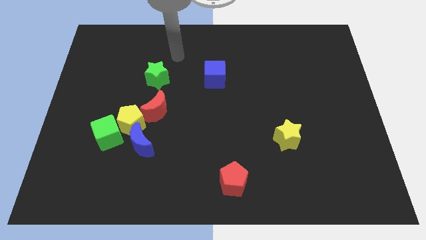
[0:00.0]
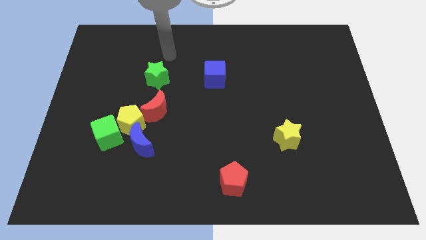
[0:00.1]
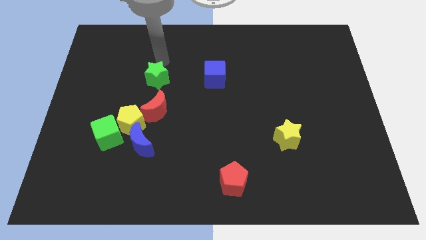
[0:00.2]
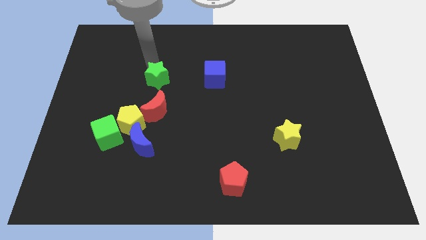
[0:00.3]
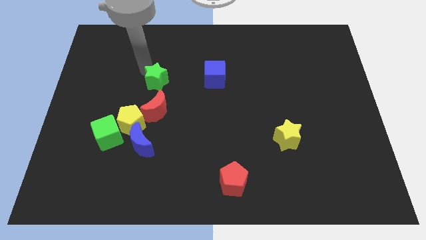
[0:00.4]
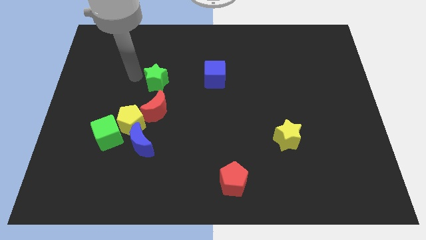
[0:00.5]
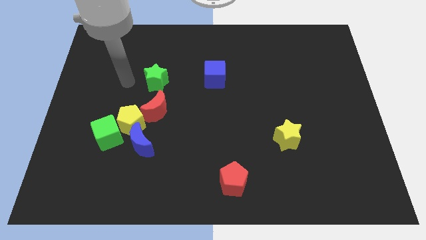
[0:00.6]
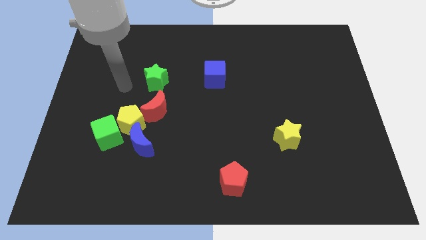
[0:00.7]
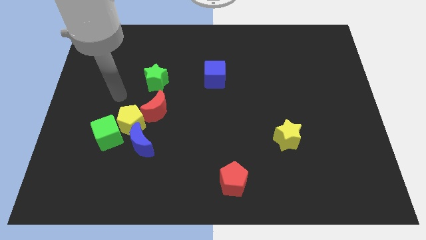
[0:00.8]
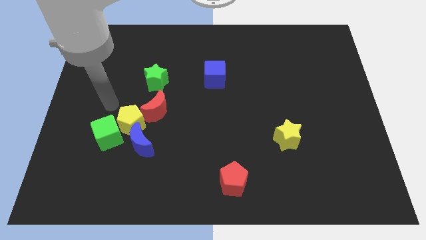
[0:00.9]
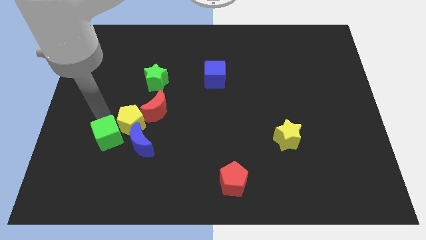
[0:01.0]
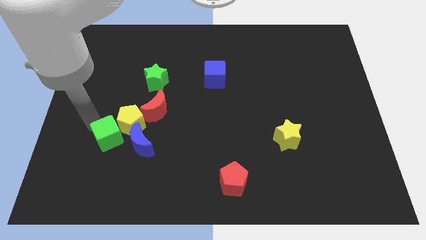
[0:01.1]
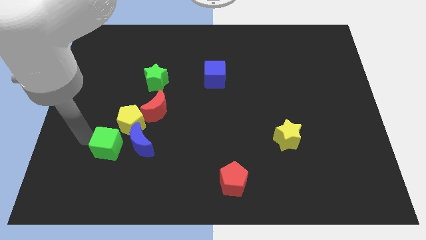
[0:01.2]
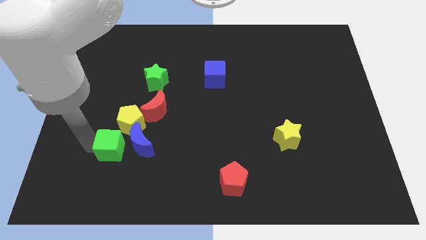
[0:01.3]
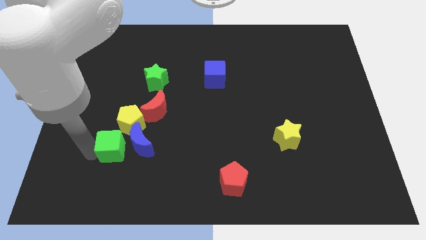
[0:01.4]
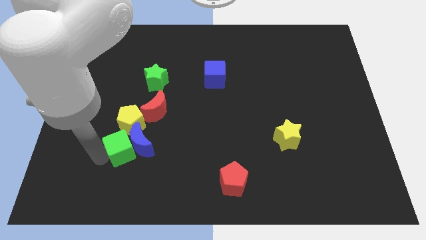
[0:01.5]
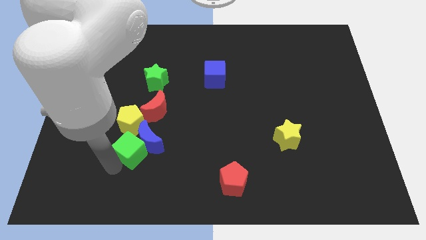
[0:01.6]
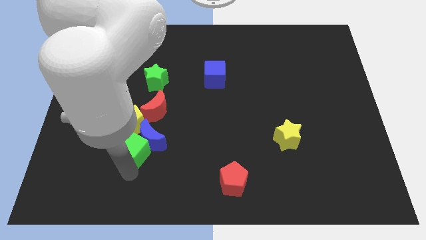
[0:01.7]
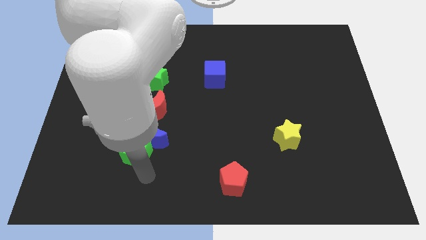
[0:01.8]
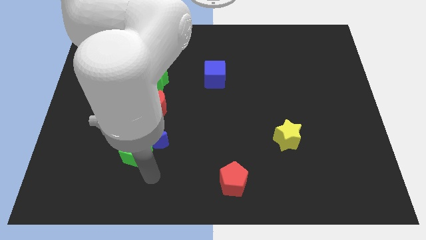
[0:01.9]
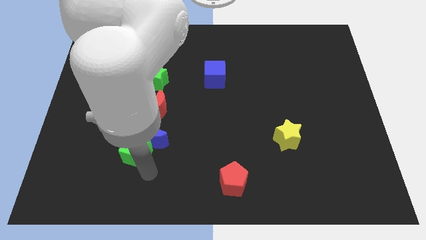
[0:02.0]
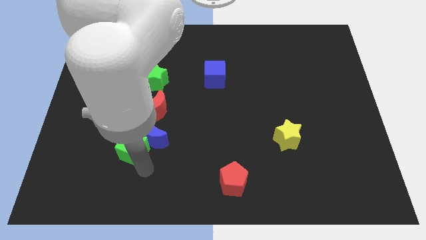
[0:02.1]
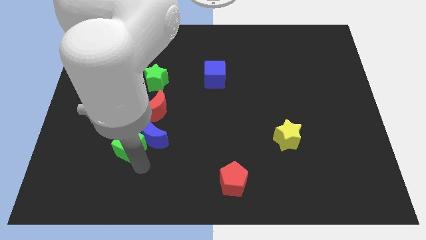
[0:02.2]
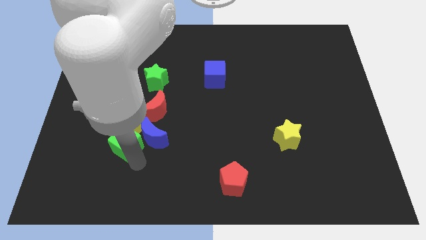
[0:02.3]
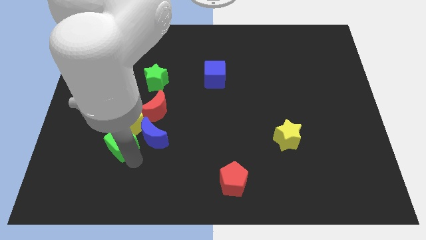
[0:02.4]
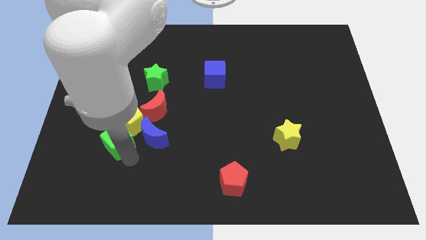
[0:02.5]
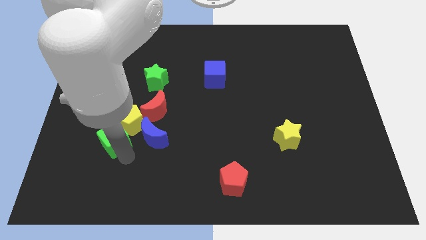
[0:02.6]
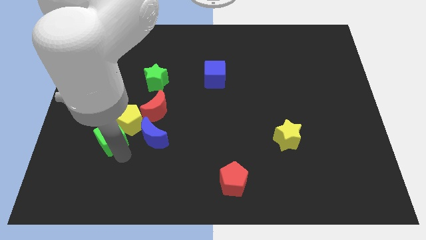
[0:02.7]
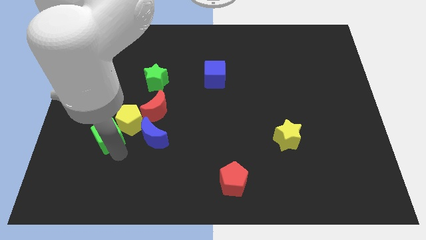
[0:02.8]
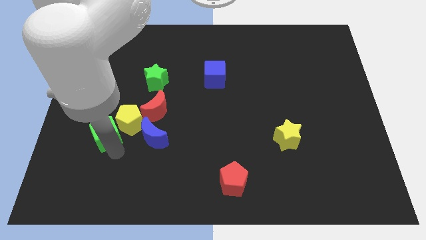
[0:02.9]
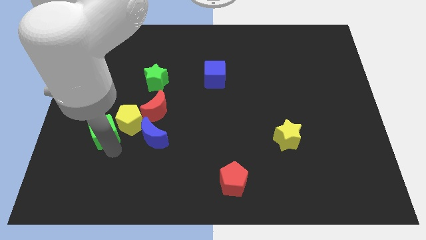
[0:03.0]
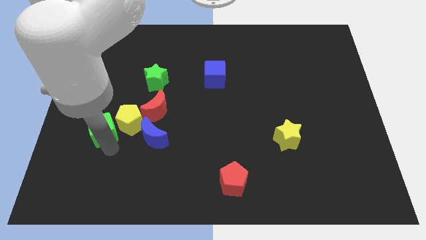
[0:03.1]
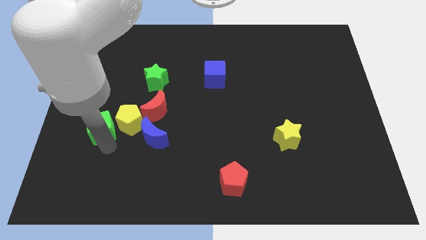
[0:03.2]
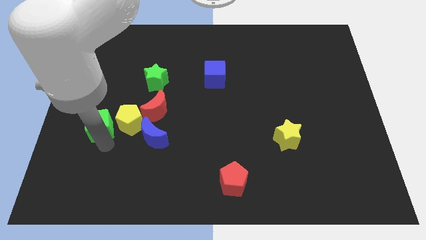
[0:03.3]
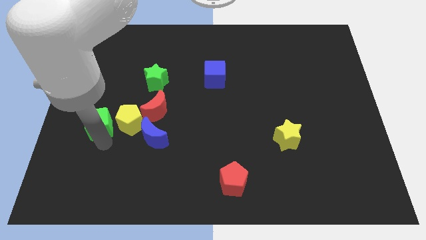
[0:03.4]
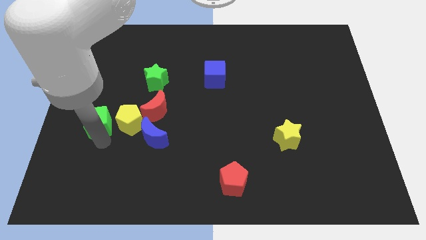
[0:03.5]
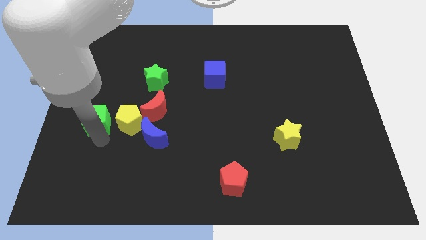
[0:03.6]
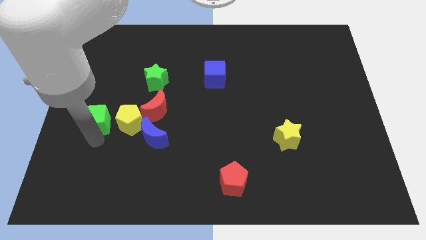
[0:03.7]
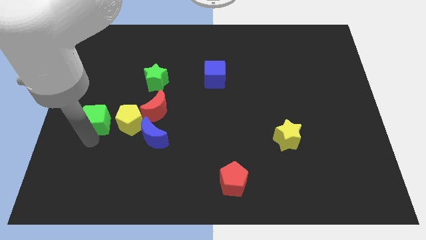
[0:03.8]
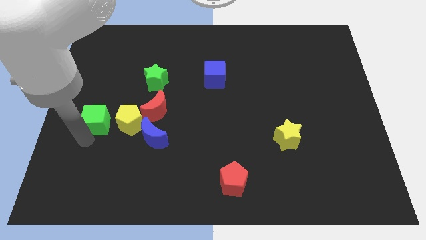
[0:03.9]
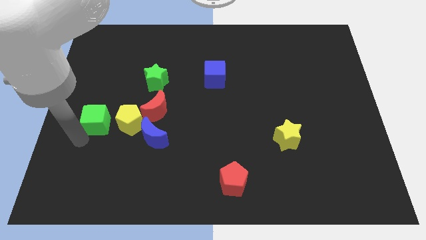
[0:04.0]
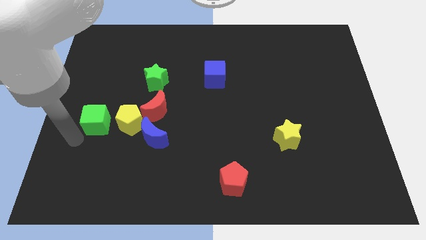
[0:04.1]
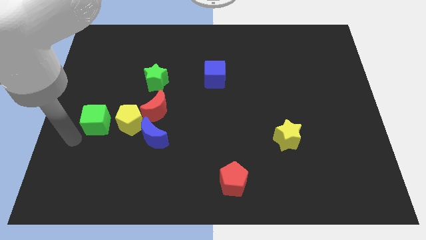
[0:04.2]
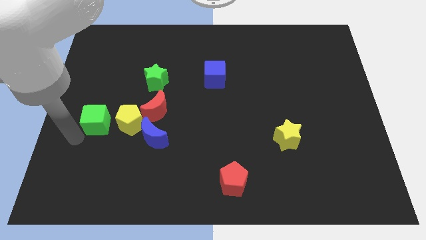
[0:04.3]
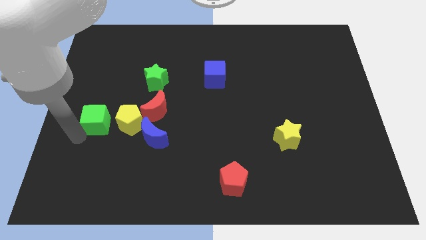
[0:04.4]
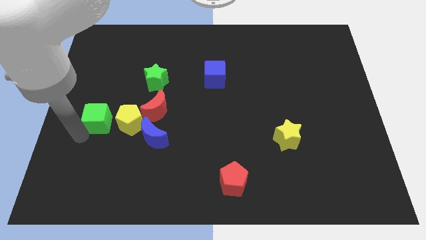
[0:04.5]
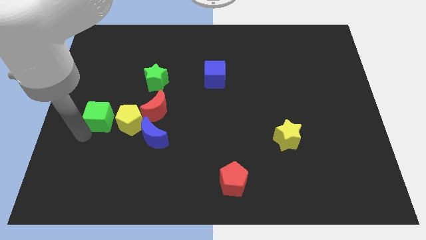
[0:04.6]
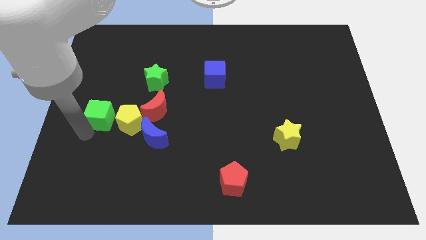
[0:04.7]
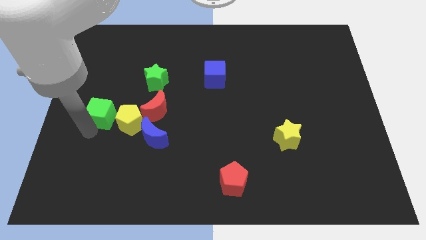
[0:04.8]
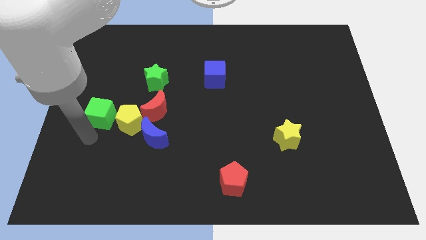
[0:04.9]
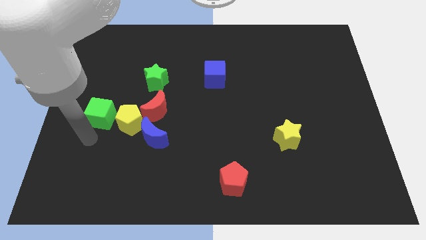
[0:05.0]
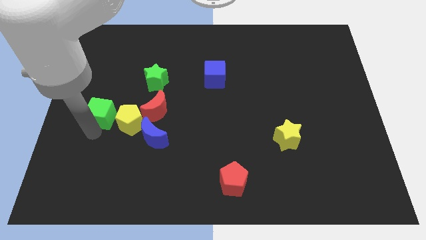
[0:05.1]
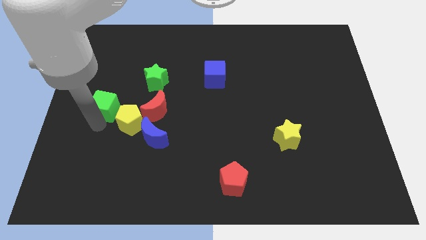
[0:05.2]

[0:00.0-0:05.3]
move the green cube upwards a little bit

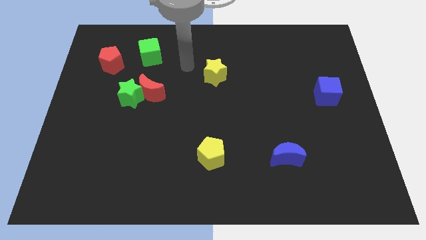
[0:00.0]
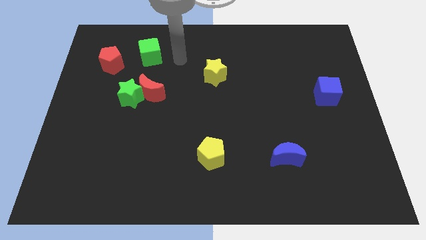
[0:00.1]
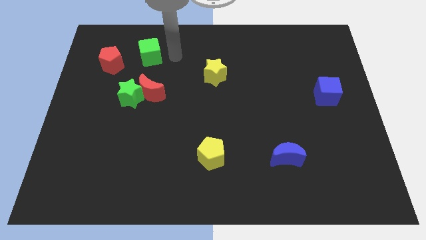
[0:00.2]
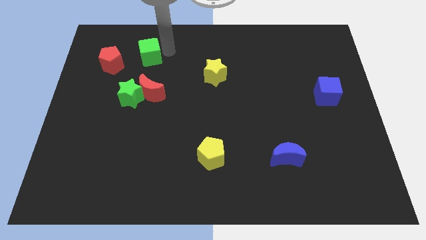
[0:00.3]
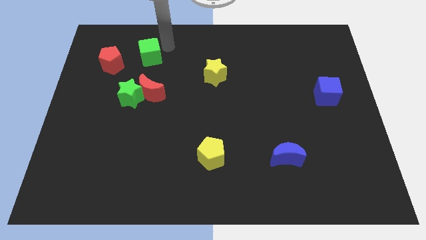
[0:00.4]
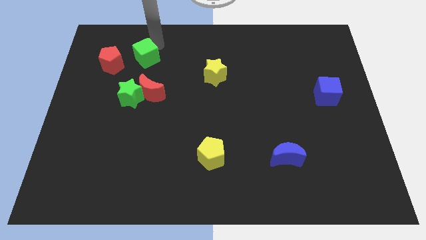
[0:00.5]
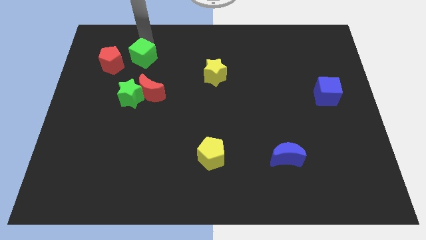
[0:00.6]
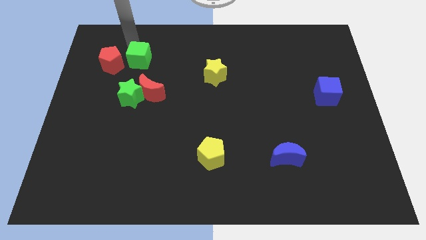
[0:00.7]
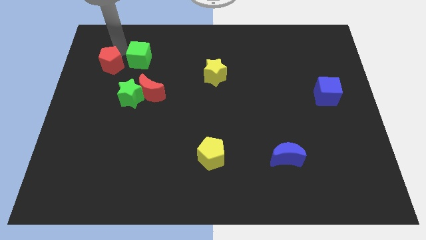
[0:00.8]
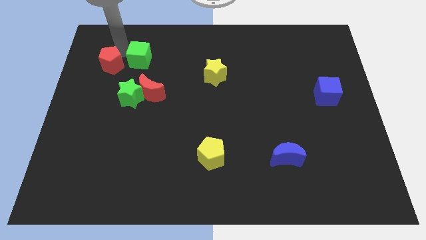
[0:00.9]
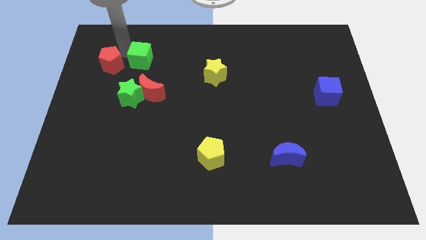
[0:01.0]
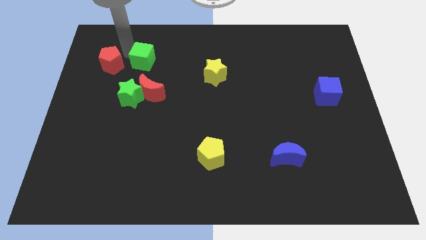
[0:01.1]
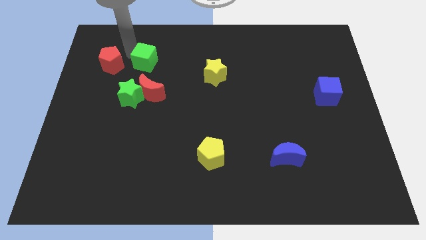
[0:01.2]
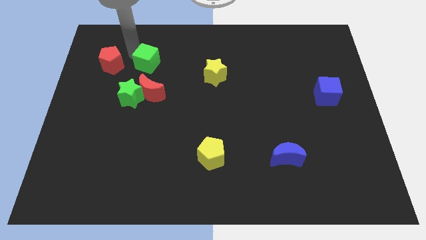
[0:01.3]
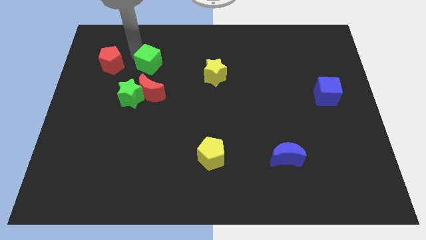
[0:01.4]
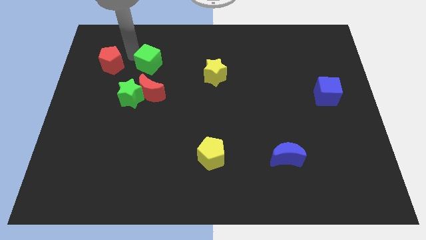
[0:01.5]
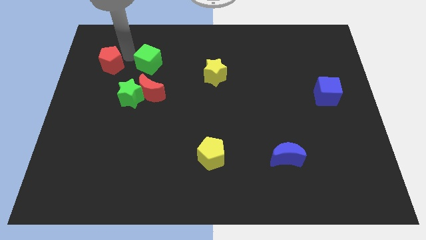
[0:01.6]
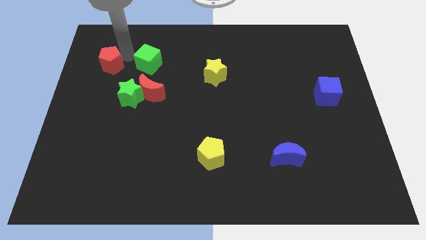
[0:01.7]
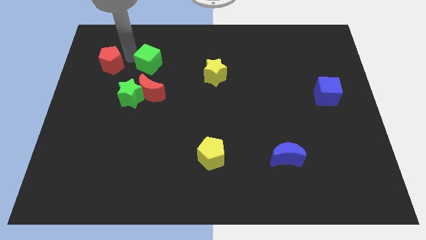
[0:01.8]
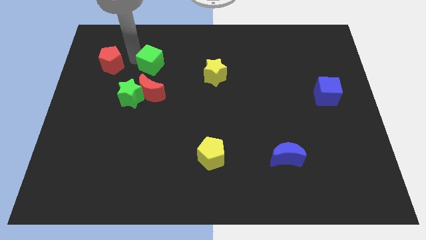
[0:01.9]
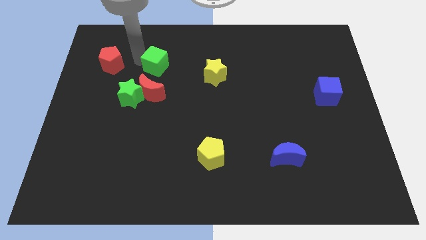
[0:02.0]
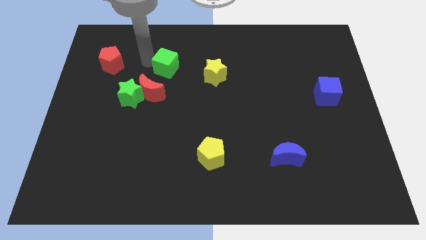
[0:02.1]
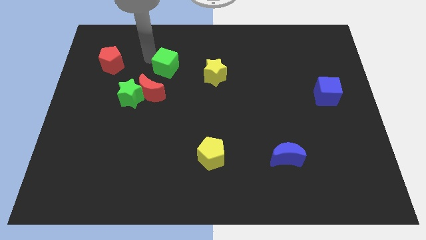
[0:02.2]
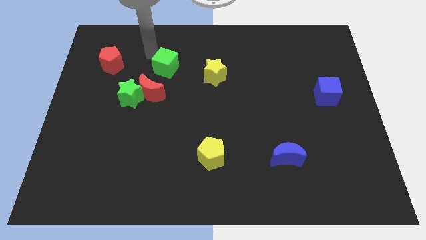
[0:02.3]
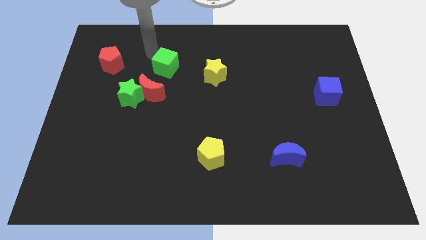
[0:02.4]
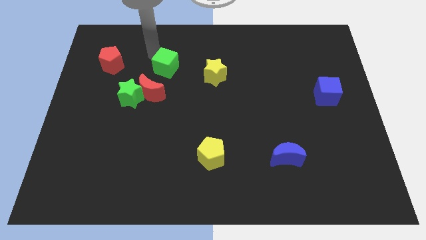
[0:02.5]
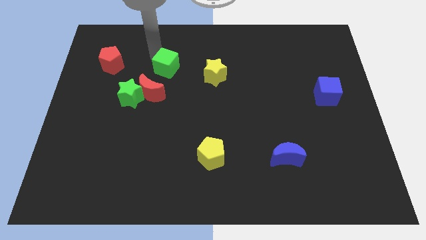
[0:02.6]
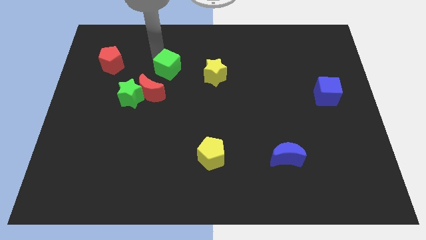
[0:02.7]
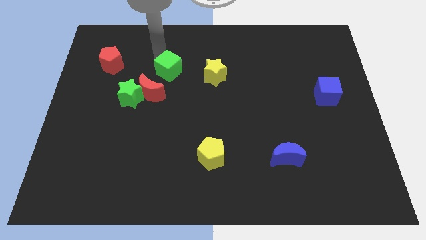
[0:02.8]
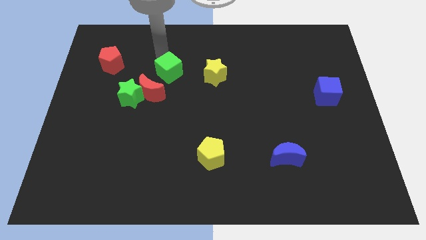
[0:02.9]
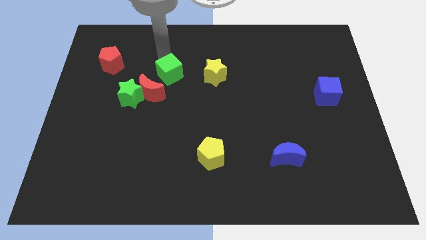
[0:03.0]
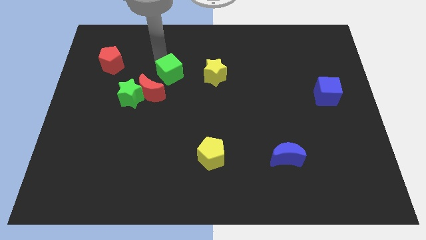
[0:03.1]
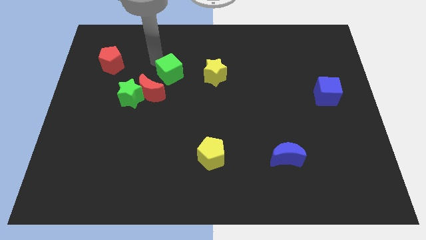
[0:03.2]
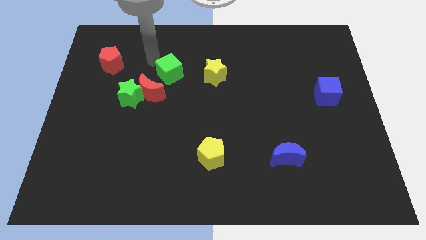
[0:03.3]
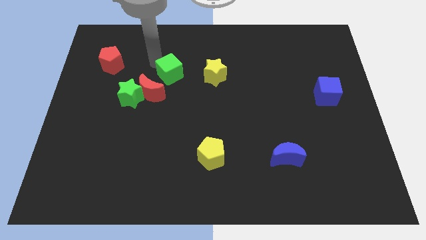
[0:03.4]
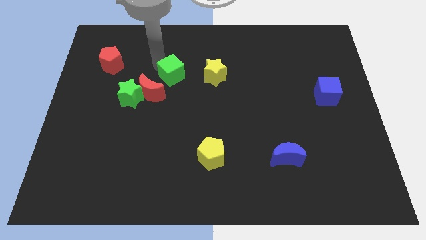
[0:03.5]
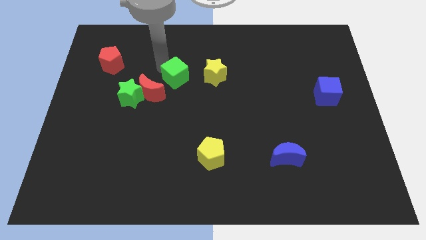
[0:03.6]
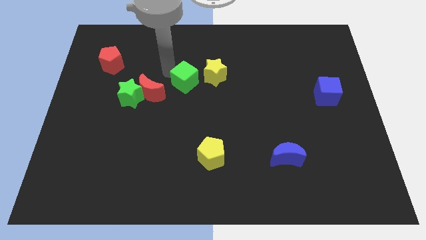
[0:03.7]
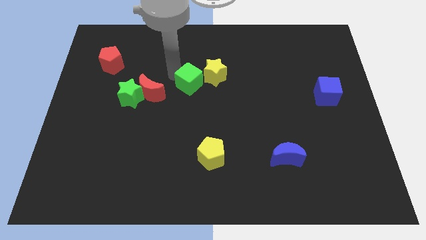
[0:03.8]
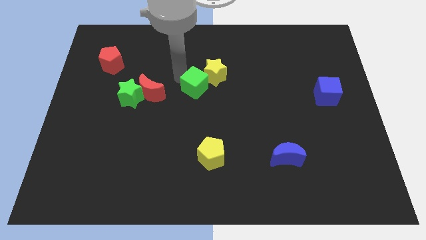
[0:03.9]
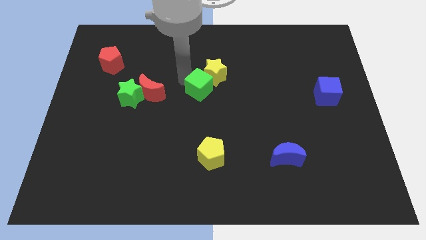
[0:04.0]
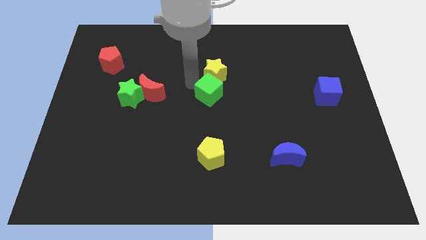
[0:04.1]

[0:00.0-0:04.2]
slide the green cube diagonally down and right
